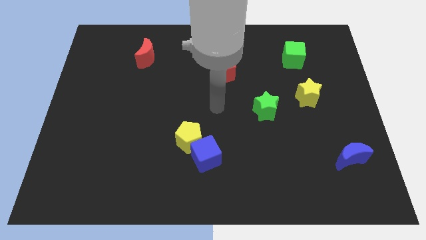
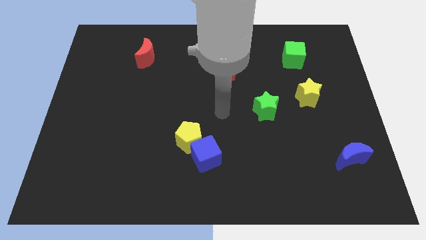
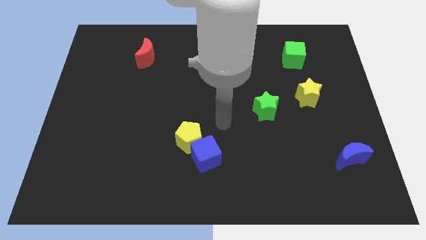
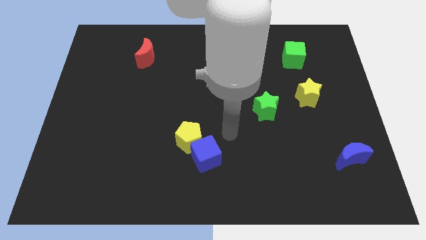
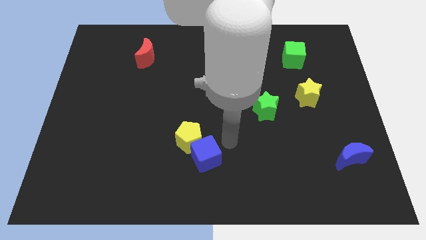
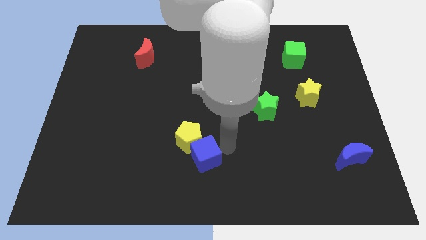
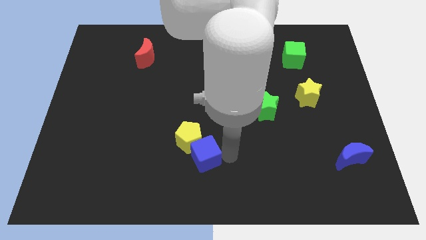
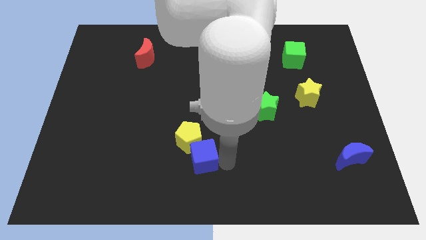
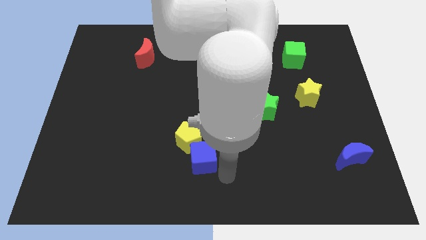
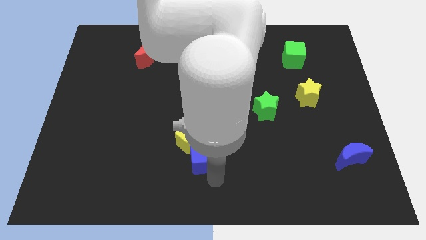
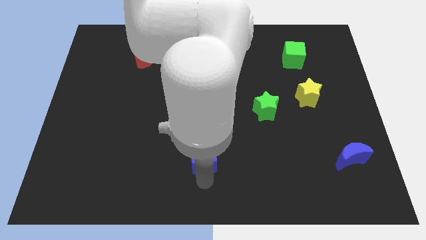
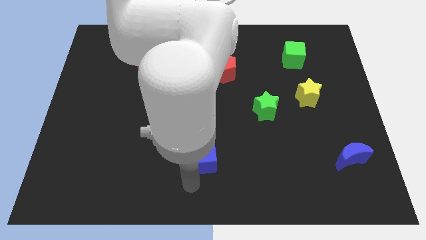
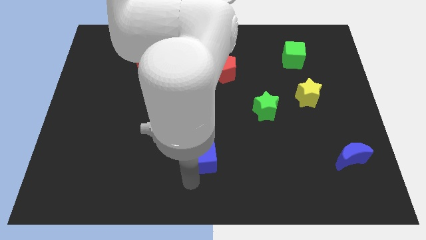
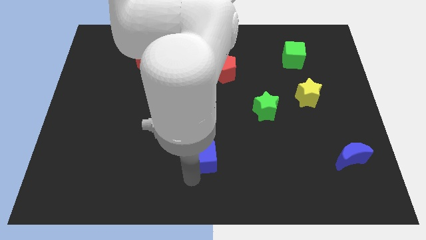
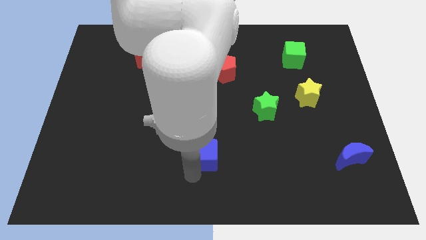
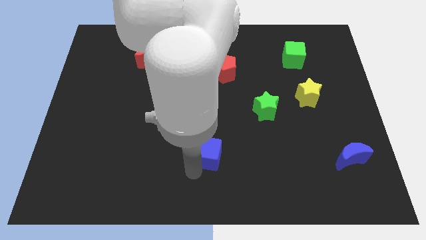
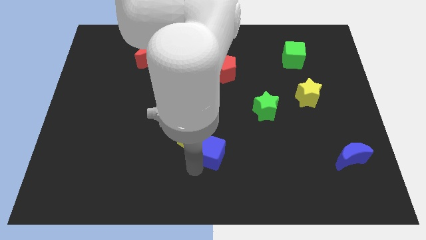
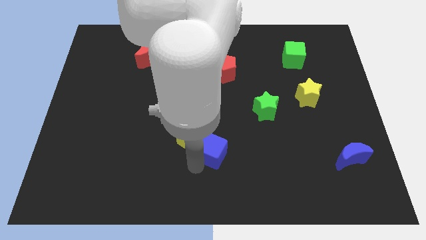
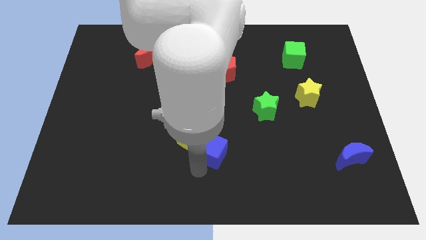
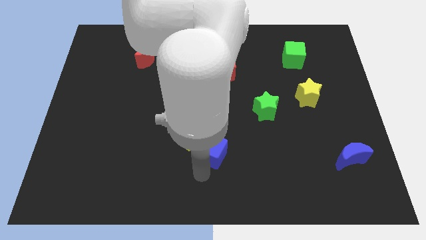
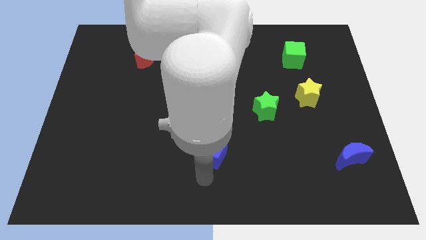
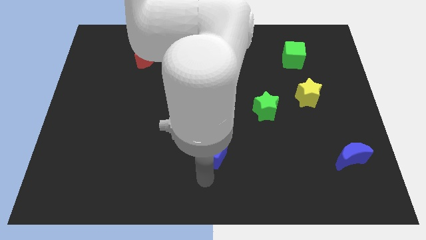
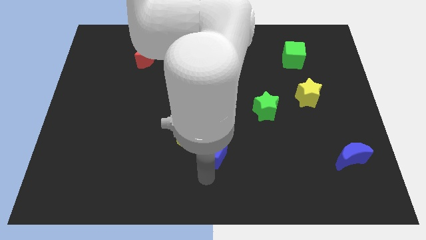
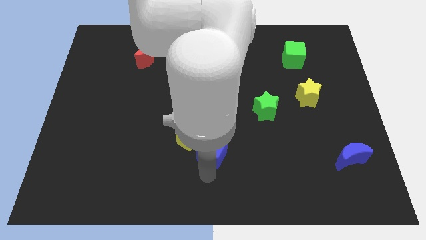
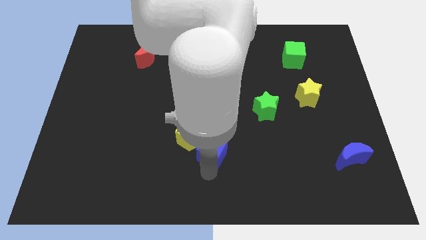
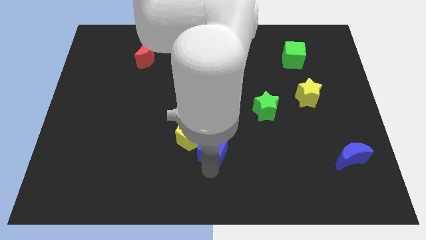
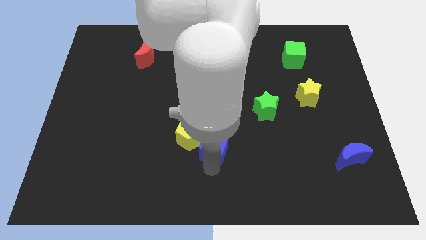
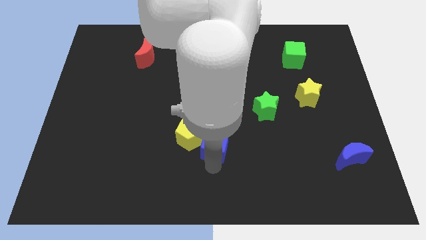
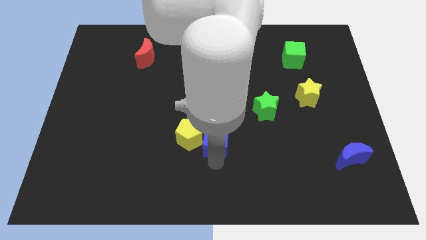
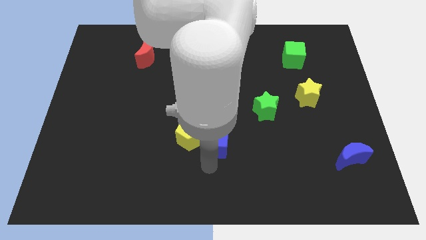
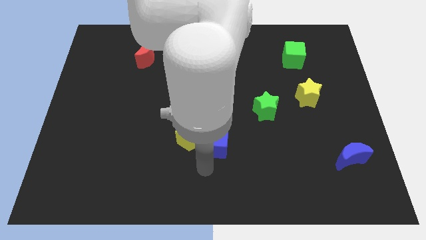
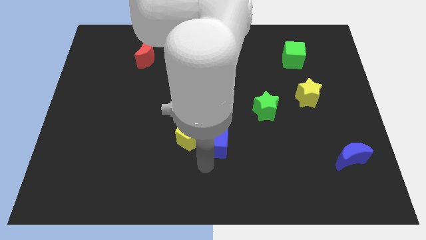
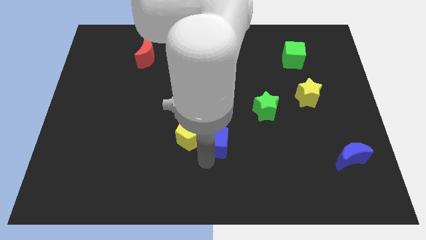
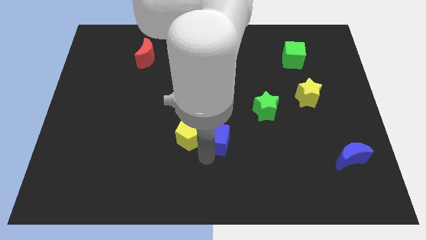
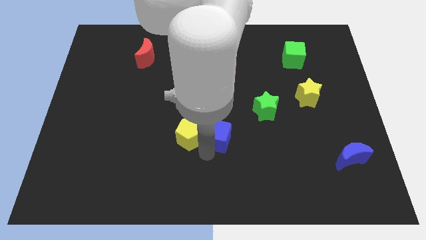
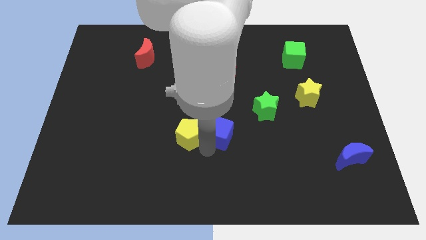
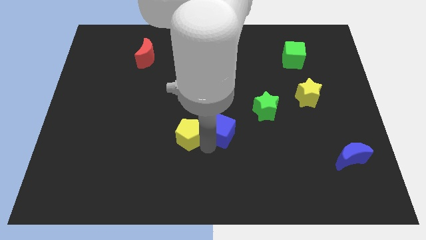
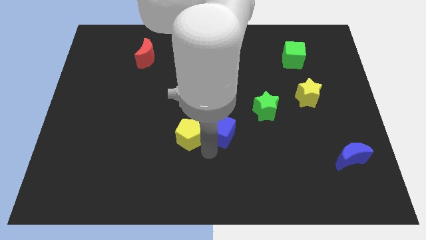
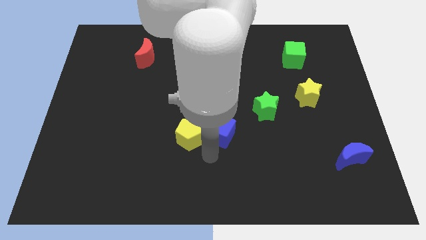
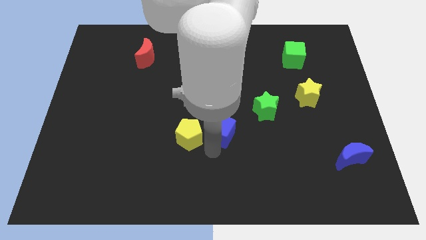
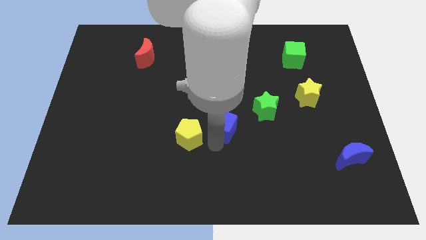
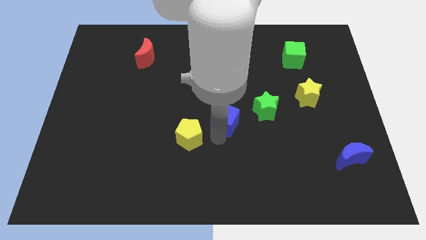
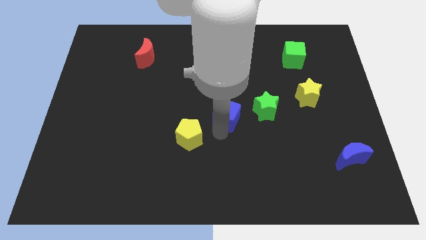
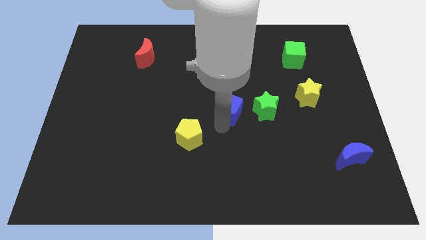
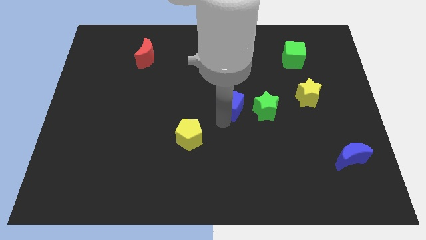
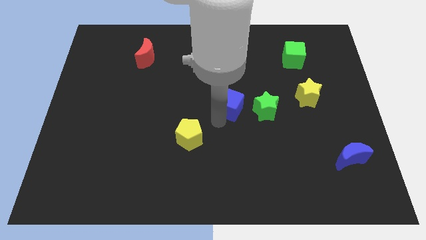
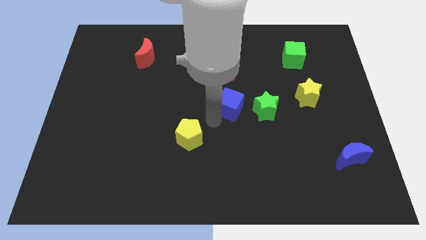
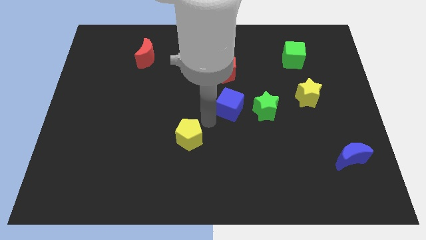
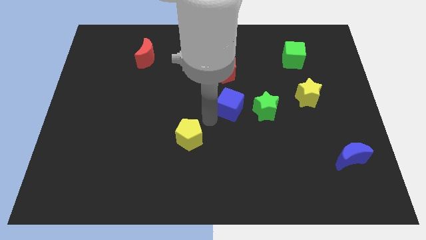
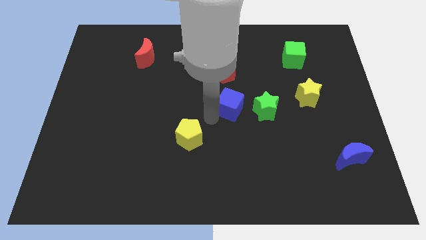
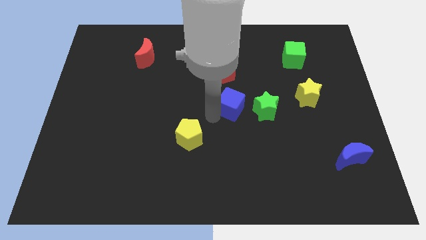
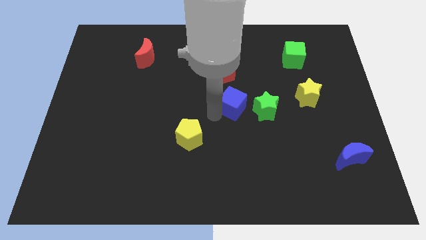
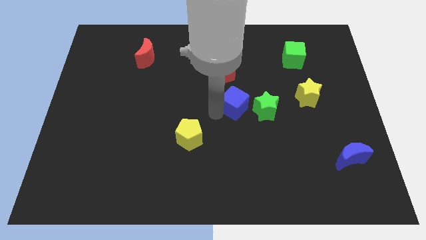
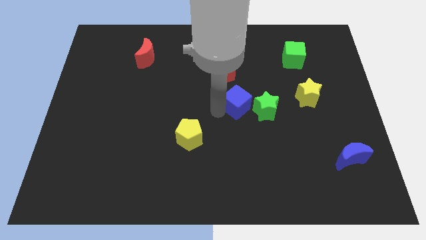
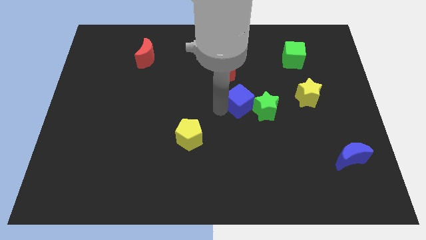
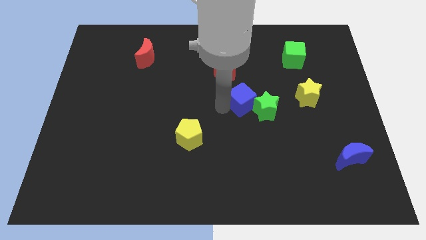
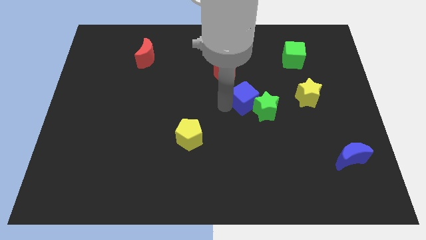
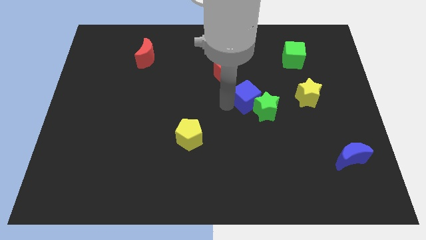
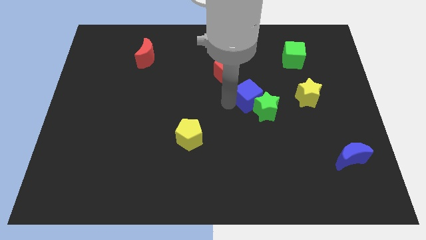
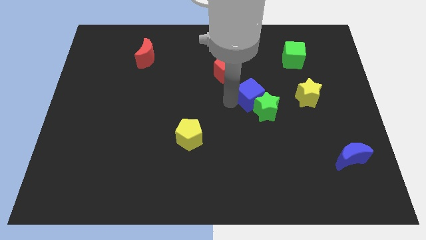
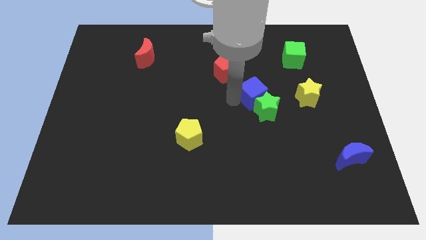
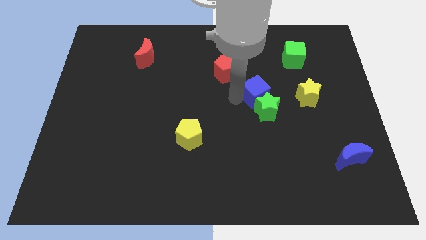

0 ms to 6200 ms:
move the blue cube up and then to the right

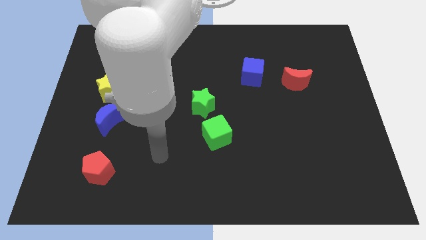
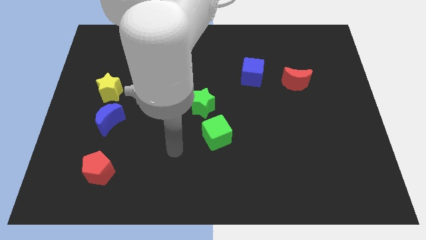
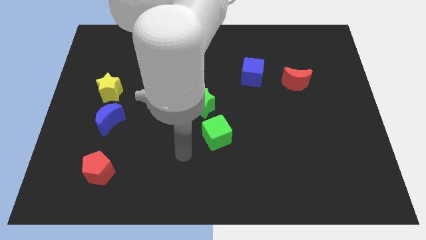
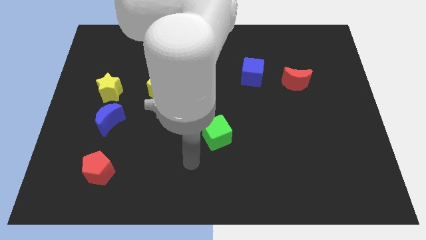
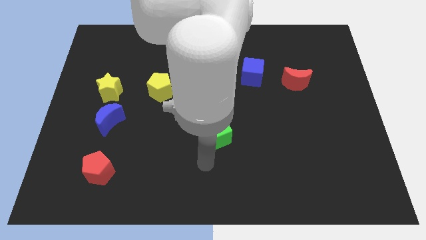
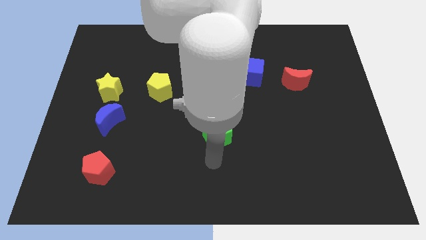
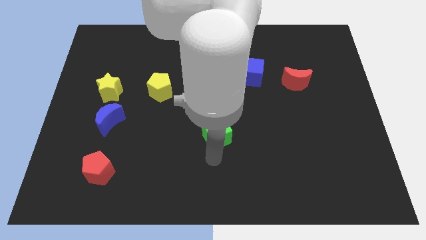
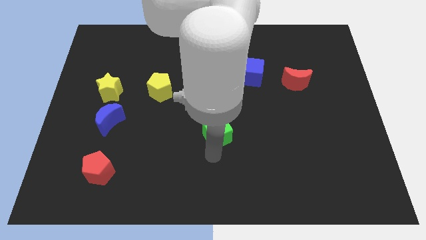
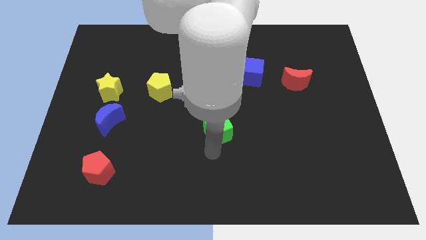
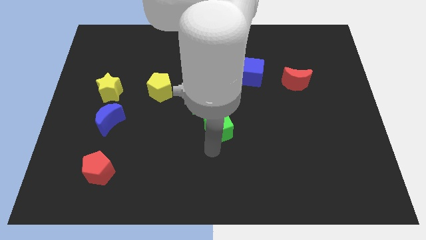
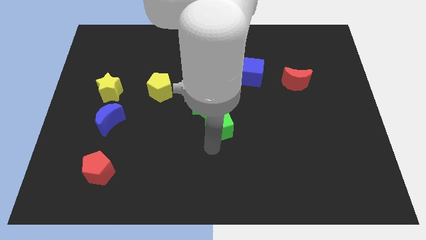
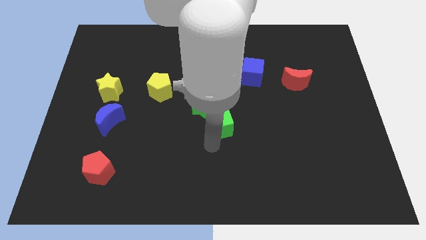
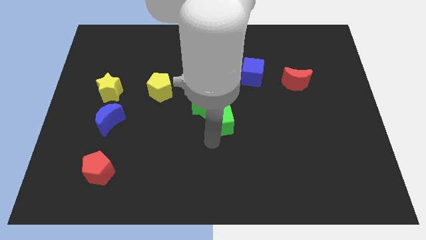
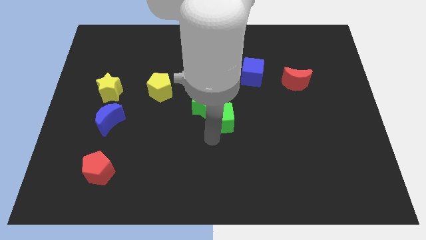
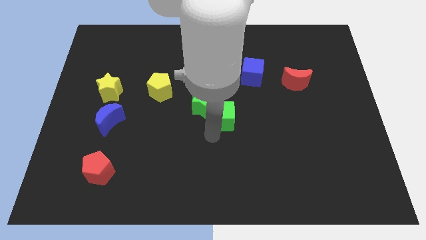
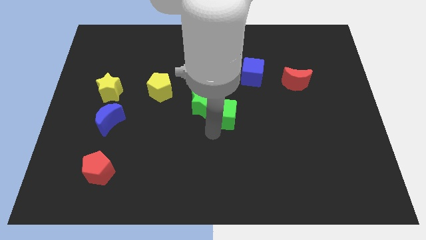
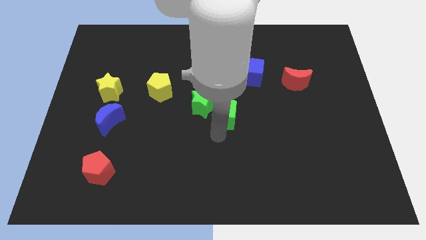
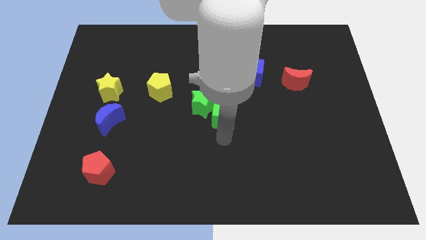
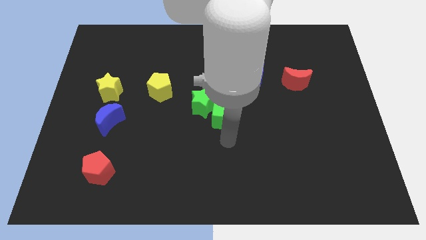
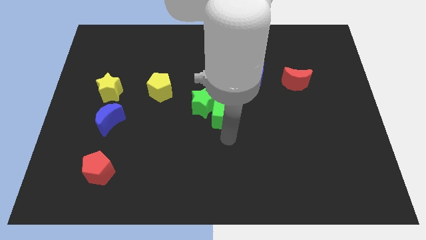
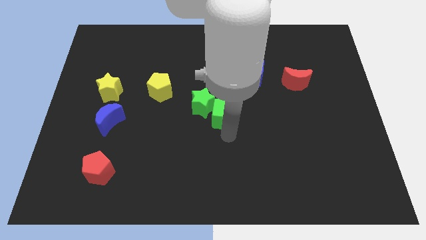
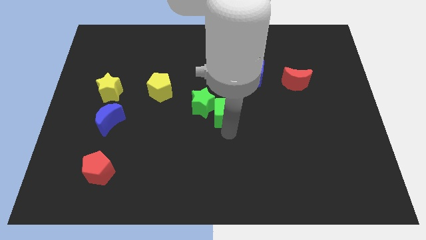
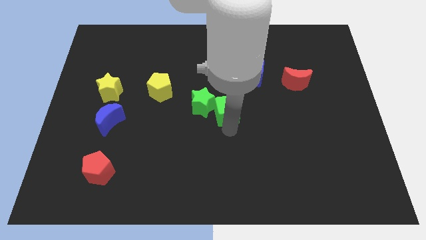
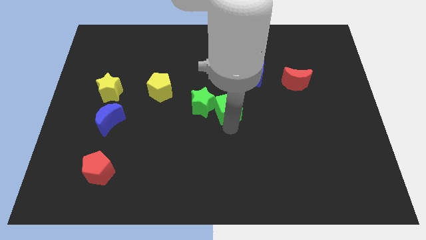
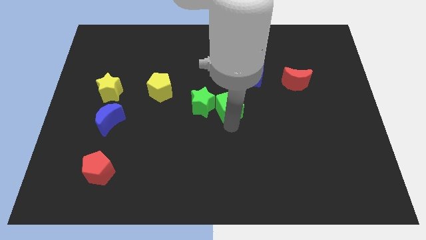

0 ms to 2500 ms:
slide the green cube somewhat upwards
